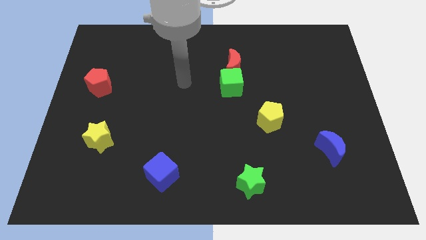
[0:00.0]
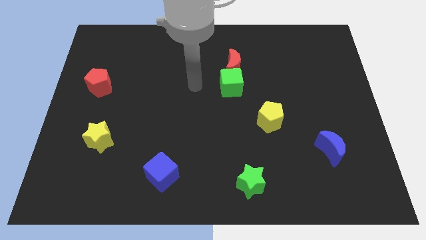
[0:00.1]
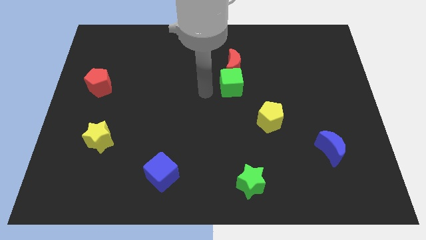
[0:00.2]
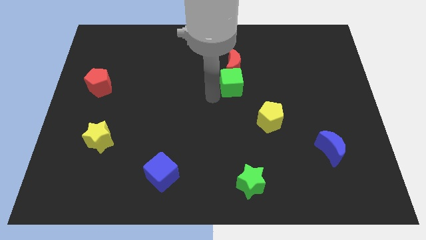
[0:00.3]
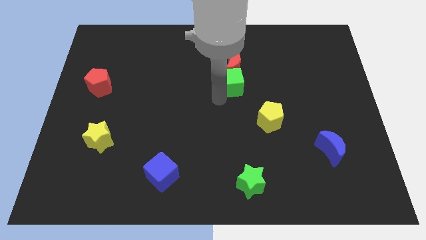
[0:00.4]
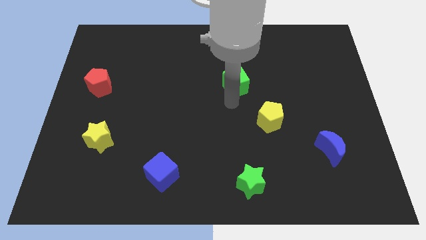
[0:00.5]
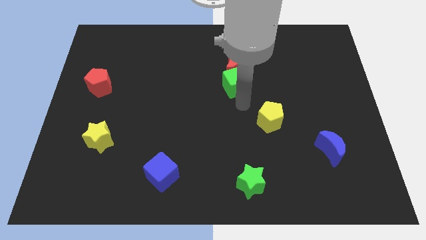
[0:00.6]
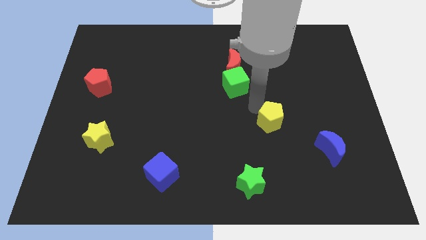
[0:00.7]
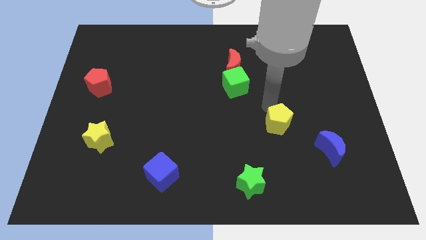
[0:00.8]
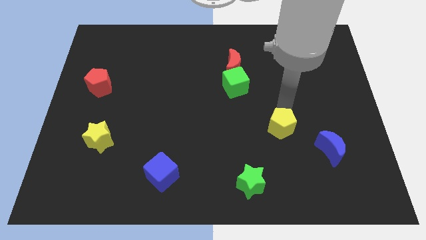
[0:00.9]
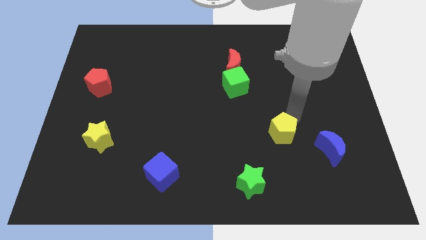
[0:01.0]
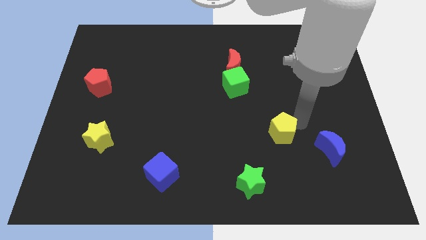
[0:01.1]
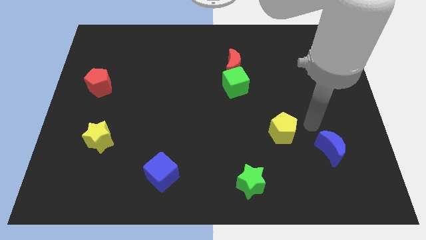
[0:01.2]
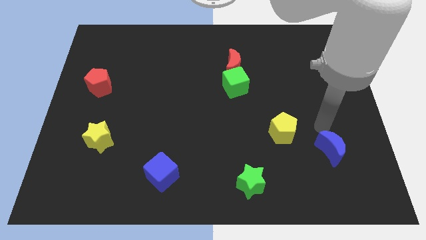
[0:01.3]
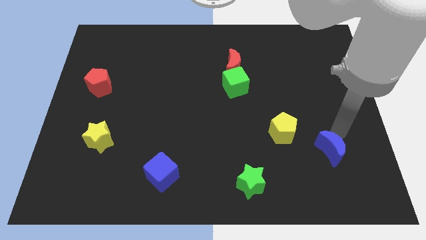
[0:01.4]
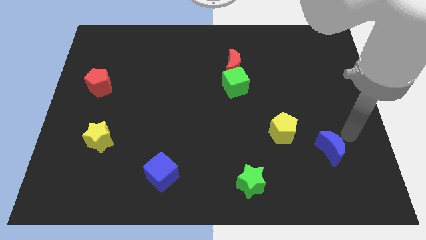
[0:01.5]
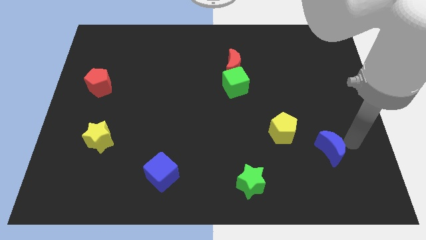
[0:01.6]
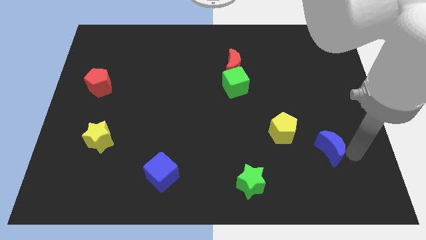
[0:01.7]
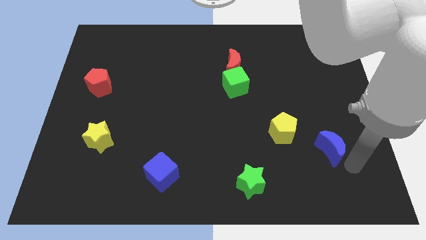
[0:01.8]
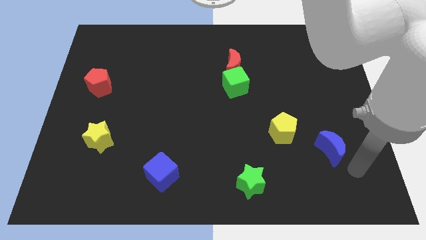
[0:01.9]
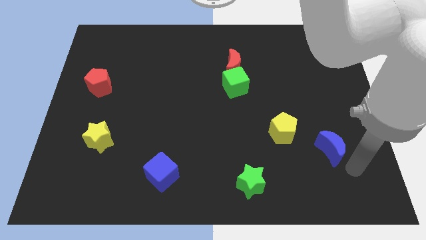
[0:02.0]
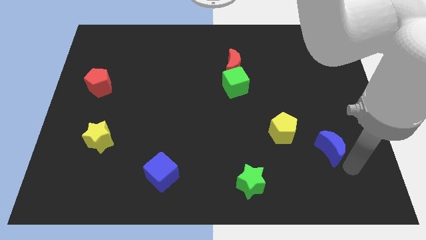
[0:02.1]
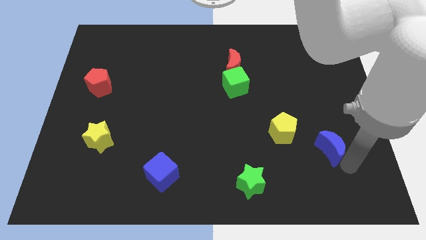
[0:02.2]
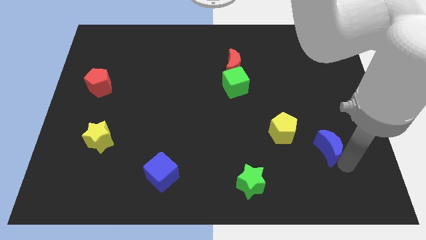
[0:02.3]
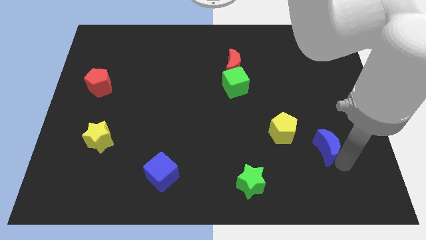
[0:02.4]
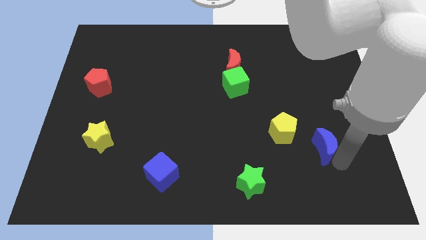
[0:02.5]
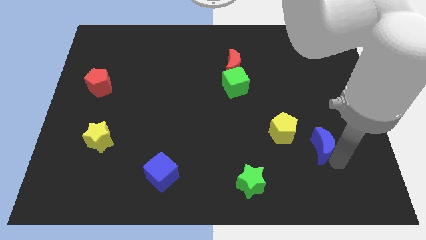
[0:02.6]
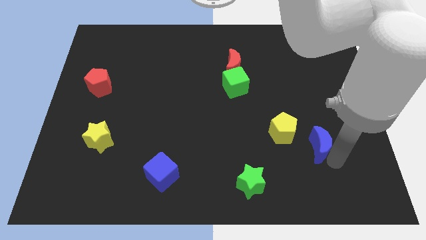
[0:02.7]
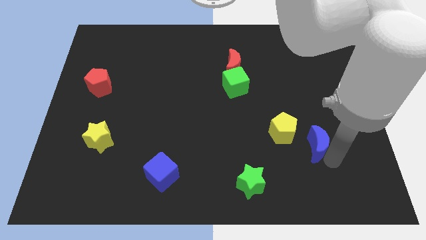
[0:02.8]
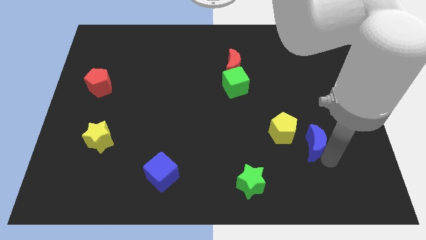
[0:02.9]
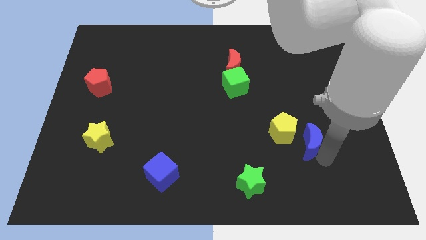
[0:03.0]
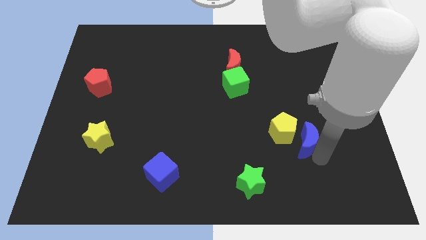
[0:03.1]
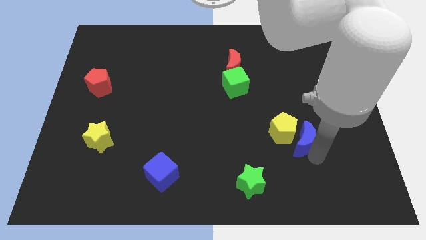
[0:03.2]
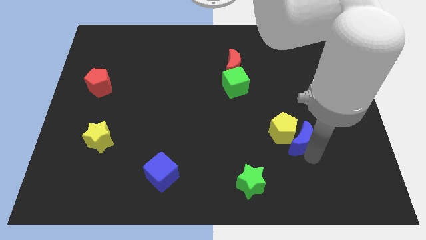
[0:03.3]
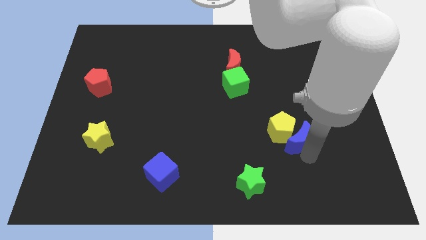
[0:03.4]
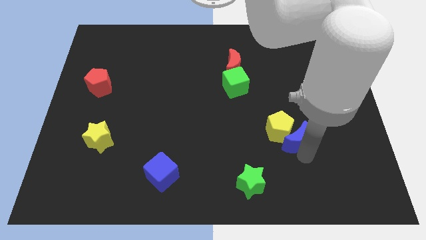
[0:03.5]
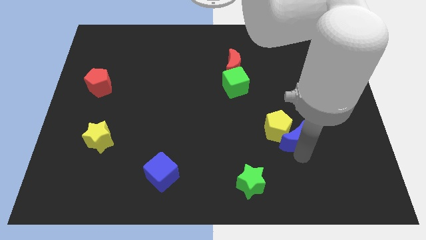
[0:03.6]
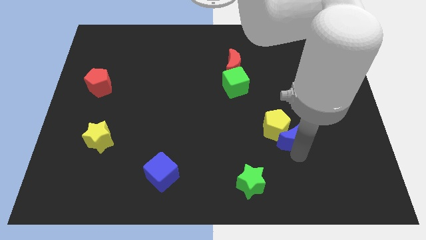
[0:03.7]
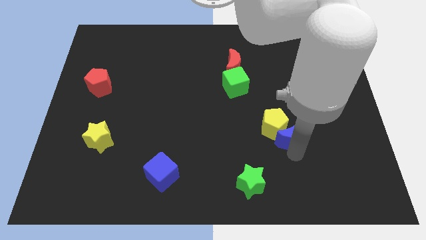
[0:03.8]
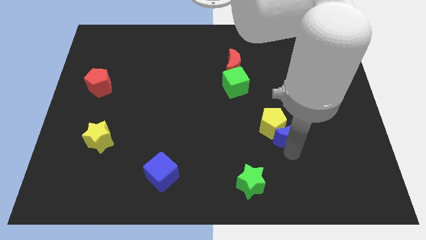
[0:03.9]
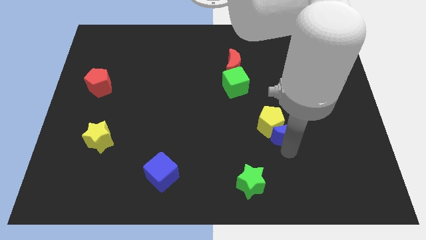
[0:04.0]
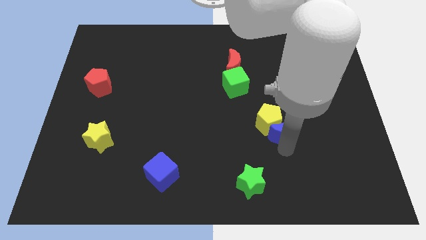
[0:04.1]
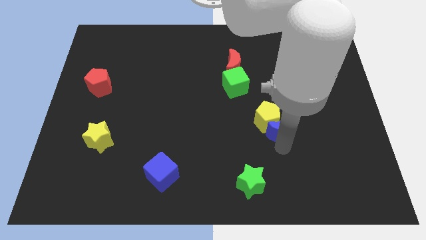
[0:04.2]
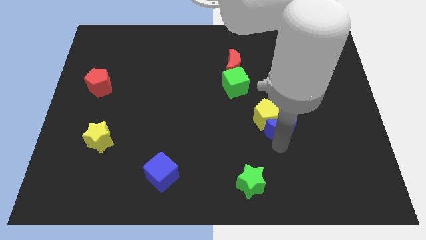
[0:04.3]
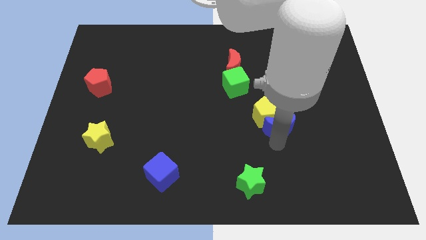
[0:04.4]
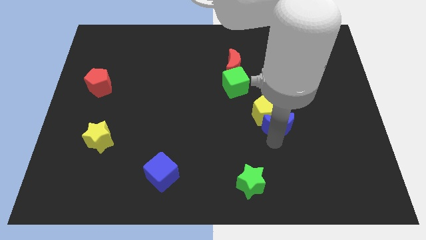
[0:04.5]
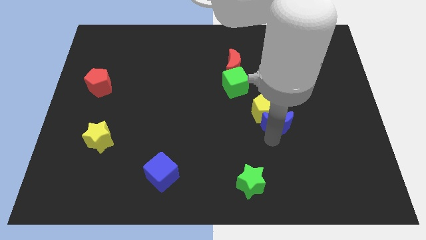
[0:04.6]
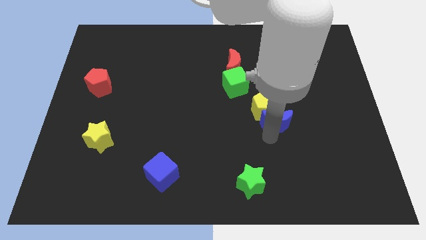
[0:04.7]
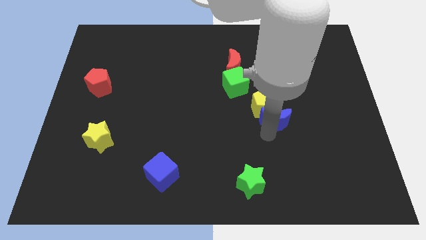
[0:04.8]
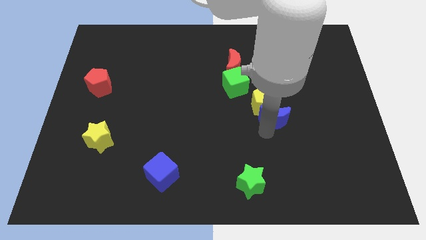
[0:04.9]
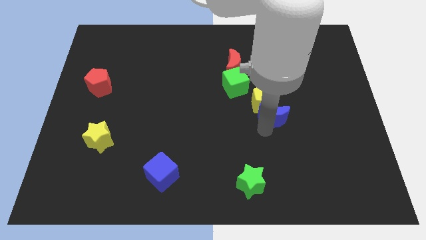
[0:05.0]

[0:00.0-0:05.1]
slide the blue moon to the bottom right side of the green cube

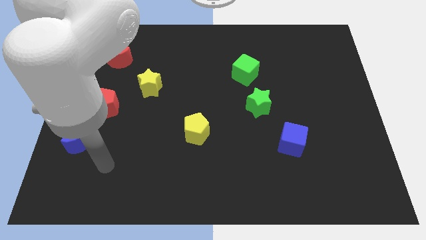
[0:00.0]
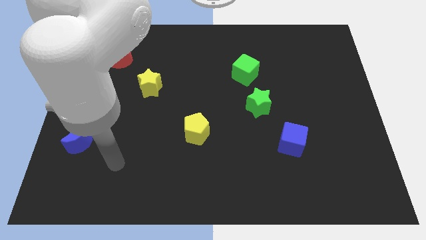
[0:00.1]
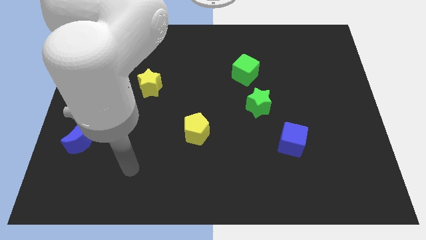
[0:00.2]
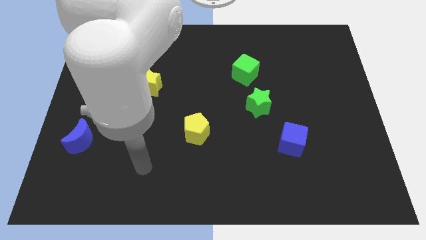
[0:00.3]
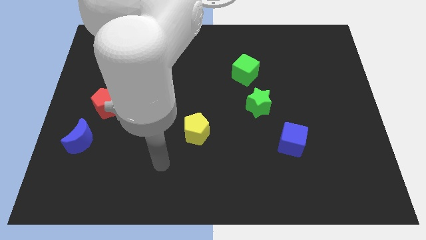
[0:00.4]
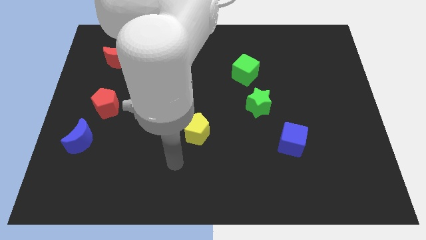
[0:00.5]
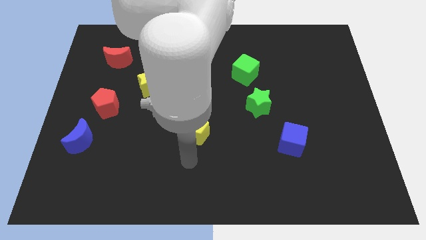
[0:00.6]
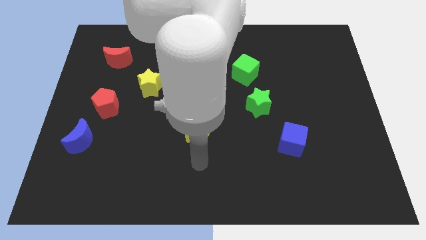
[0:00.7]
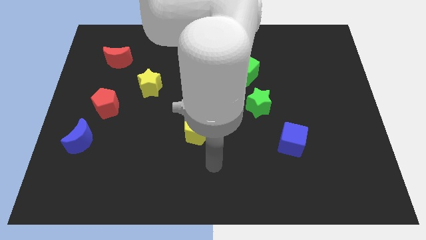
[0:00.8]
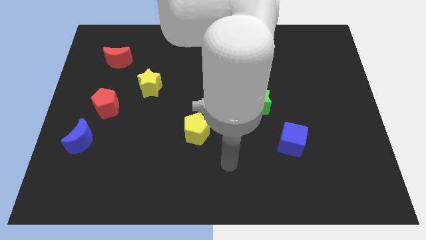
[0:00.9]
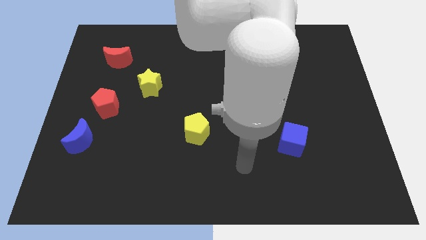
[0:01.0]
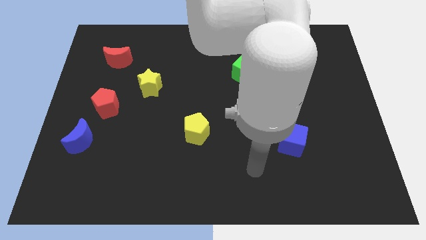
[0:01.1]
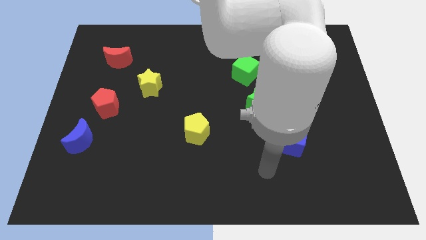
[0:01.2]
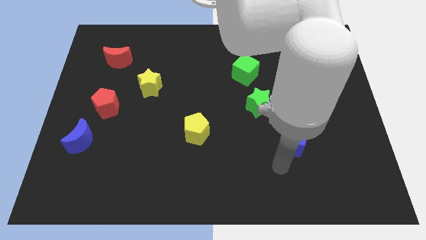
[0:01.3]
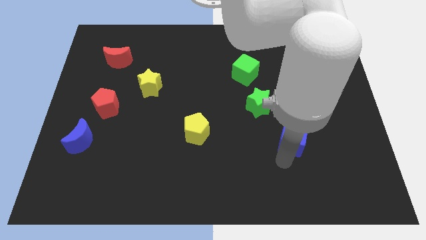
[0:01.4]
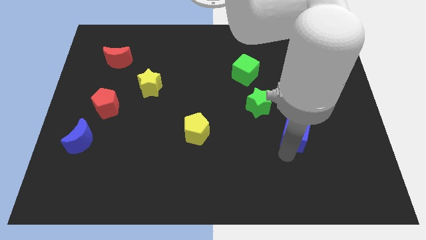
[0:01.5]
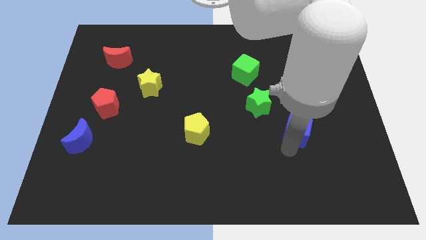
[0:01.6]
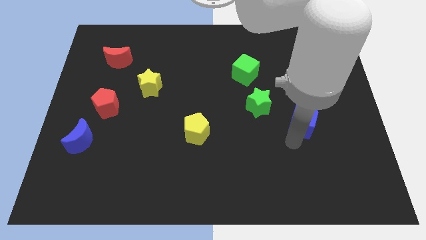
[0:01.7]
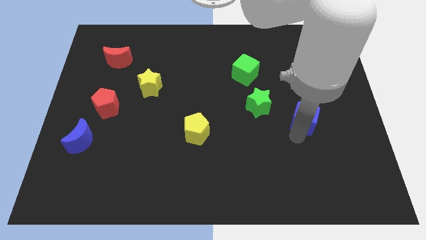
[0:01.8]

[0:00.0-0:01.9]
slide the blue cube to the right side of the green star

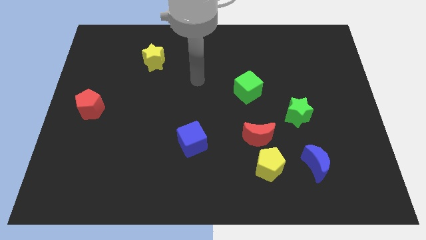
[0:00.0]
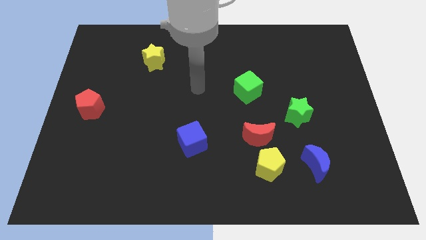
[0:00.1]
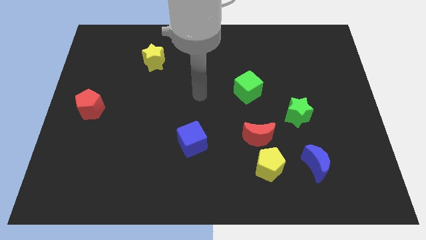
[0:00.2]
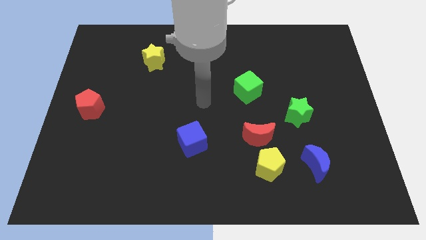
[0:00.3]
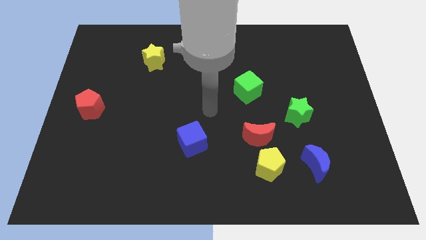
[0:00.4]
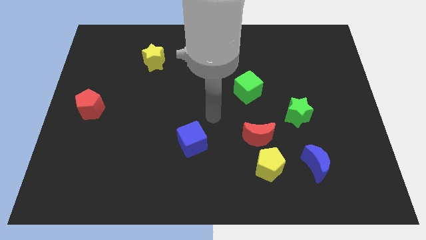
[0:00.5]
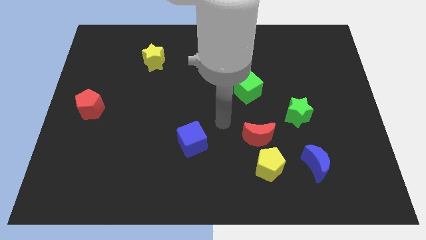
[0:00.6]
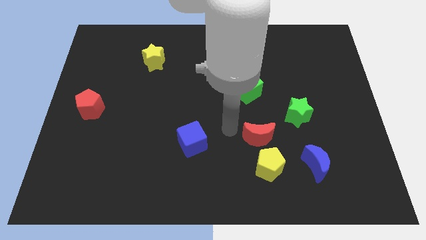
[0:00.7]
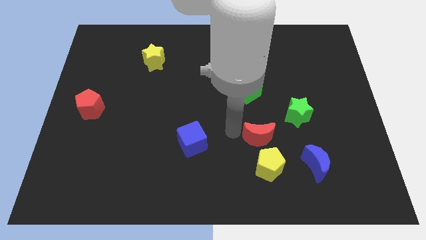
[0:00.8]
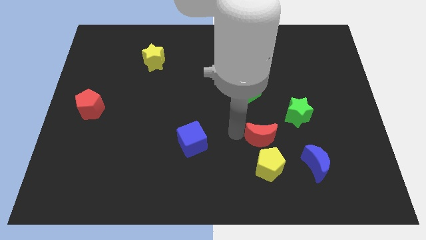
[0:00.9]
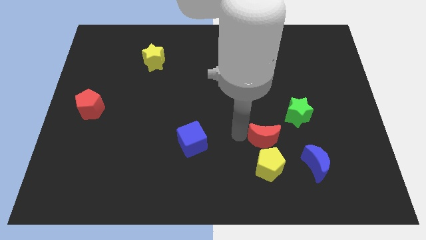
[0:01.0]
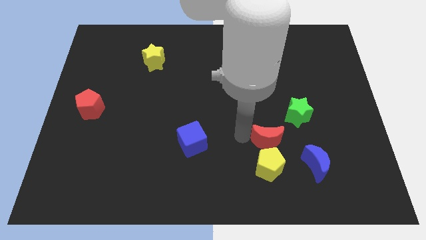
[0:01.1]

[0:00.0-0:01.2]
put the red moon to the top right of the yellow pentagon
